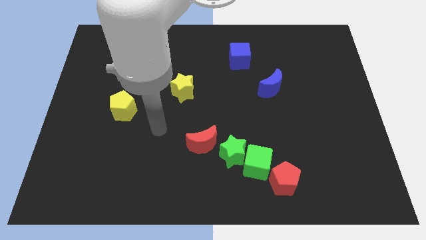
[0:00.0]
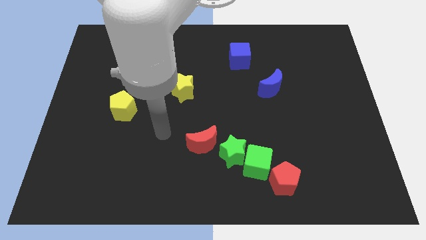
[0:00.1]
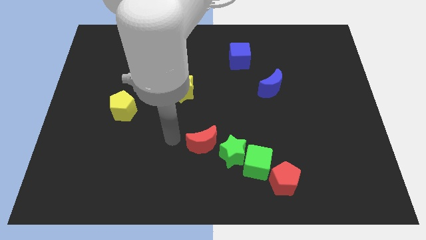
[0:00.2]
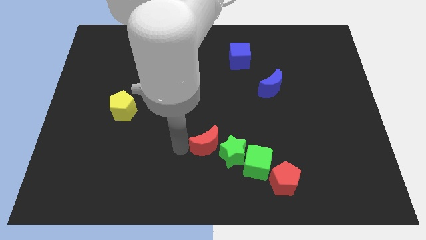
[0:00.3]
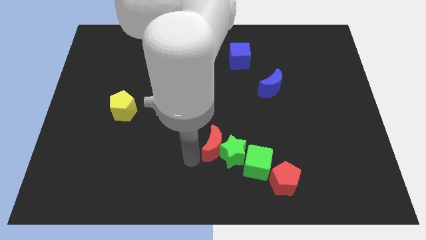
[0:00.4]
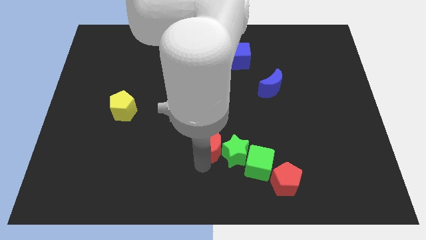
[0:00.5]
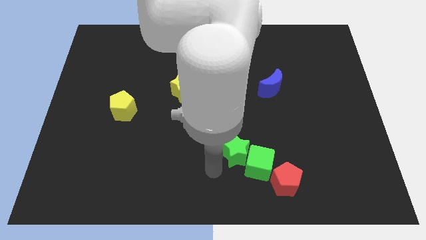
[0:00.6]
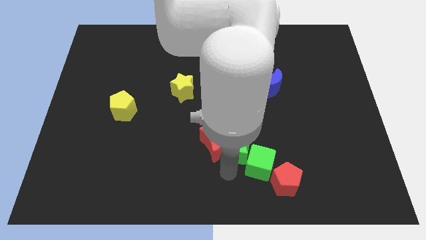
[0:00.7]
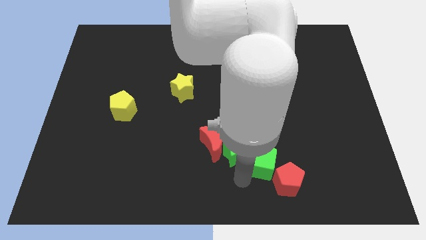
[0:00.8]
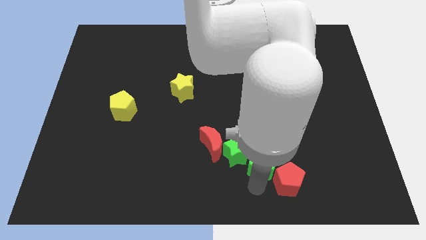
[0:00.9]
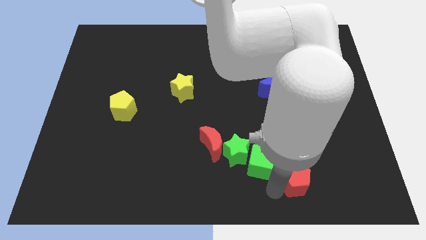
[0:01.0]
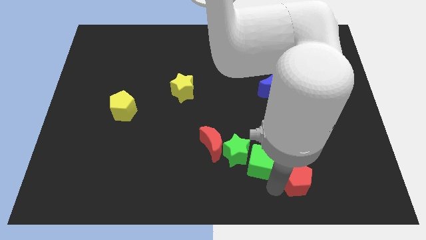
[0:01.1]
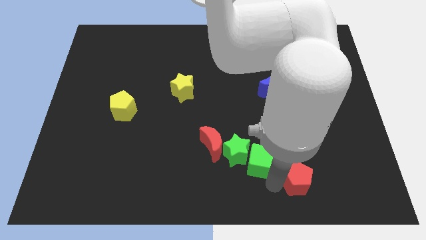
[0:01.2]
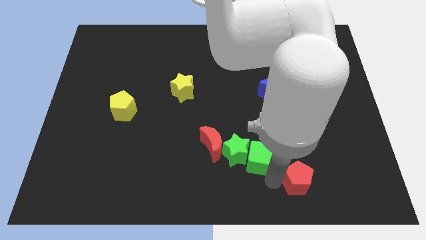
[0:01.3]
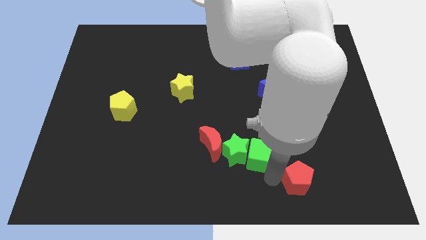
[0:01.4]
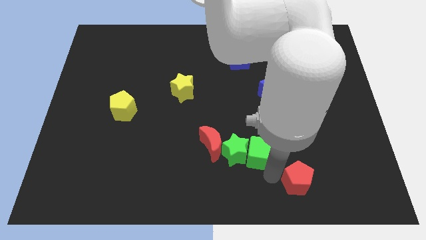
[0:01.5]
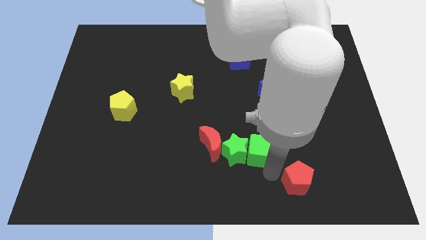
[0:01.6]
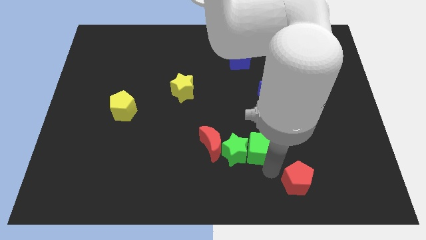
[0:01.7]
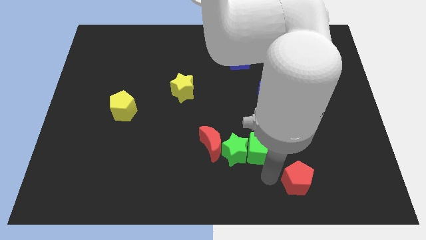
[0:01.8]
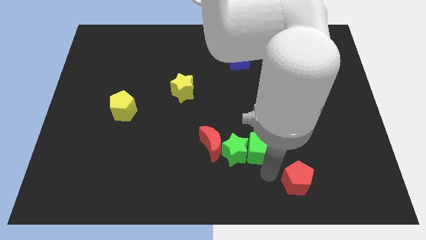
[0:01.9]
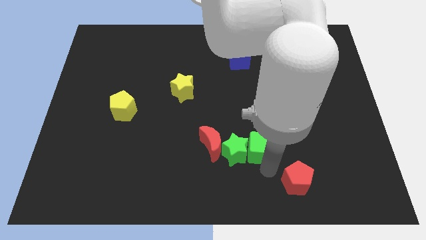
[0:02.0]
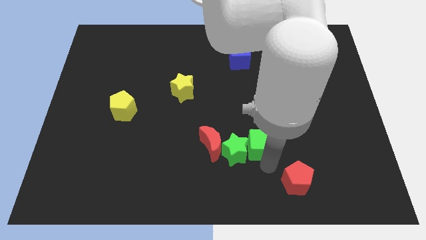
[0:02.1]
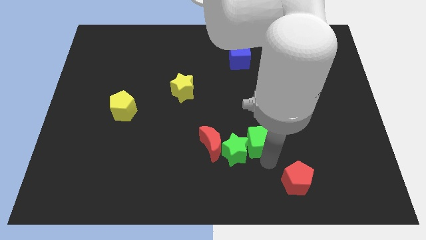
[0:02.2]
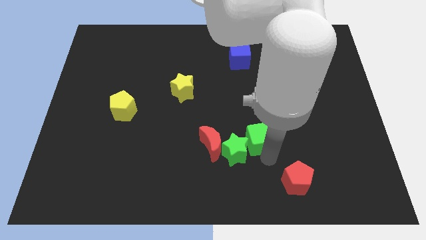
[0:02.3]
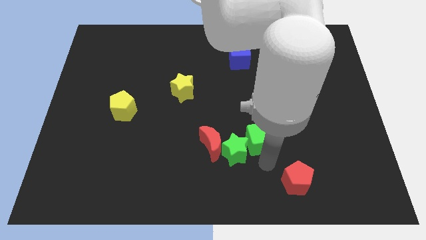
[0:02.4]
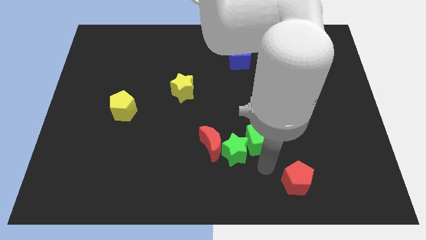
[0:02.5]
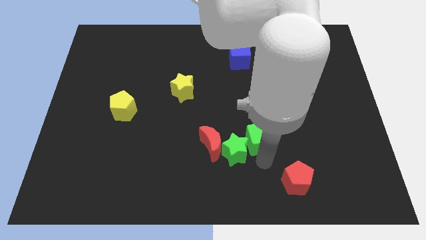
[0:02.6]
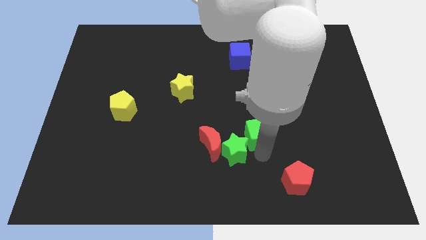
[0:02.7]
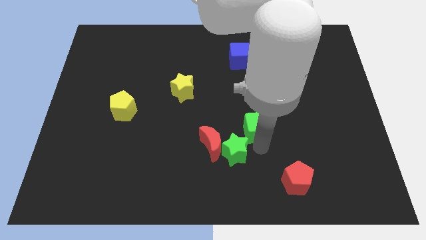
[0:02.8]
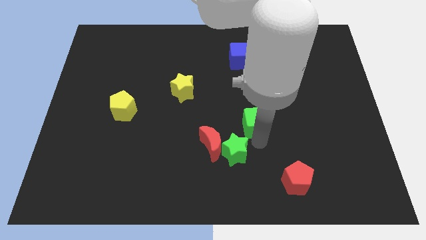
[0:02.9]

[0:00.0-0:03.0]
pull the green cube apart from the green star and red pentagon

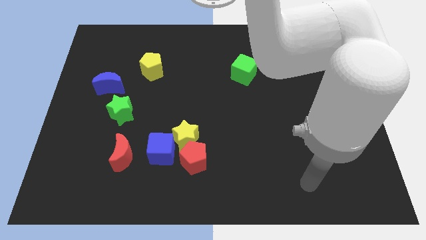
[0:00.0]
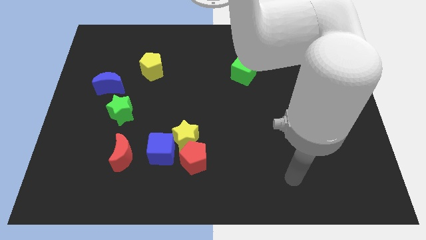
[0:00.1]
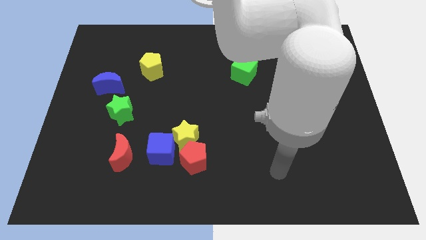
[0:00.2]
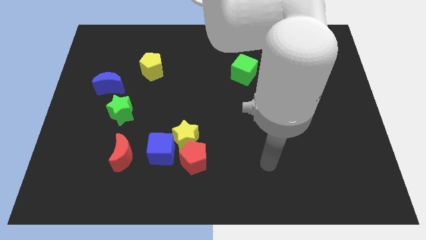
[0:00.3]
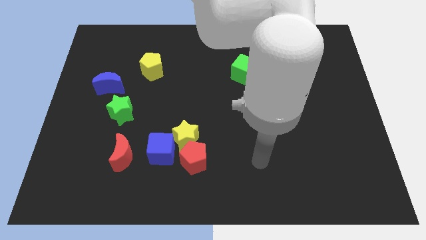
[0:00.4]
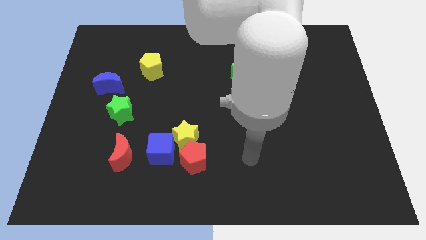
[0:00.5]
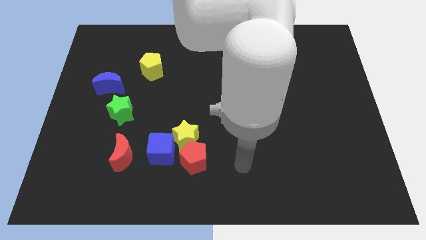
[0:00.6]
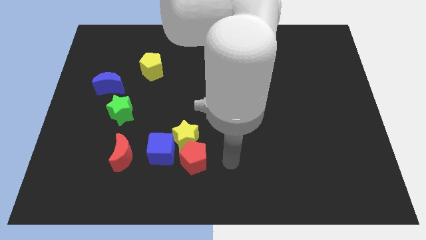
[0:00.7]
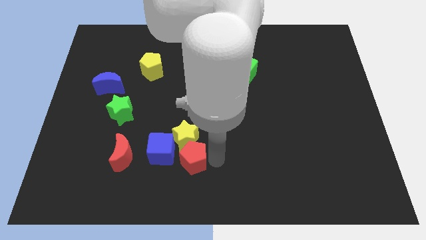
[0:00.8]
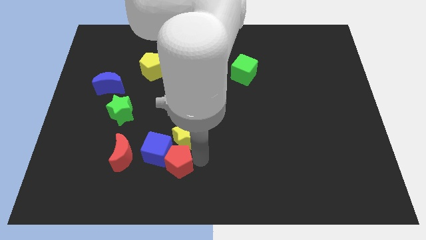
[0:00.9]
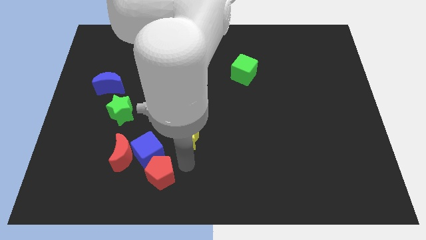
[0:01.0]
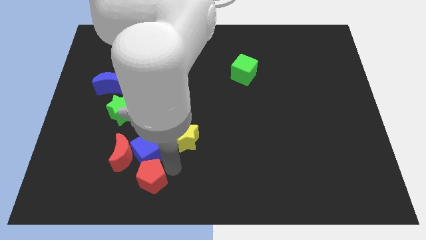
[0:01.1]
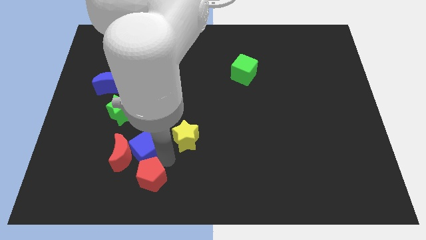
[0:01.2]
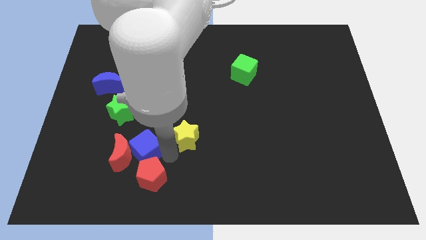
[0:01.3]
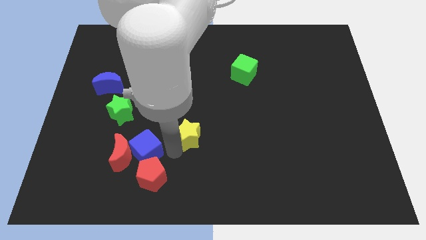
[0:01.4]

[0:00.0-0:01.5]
pull the yellow star apart from the red pentagon and blue cube

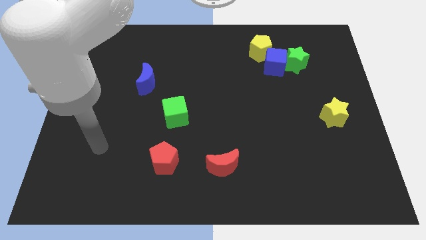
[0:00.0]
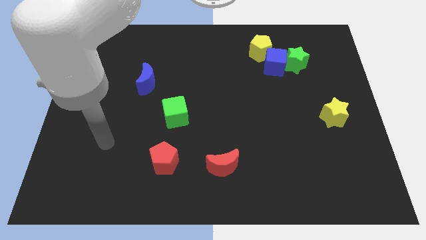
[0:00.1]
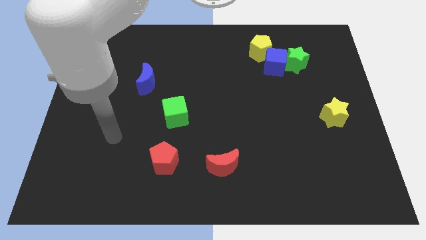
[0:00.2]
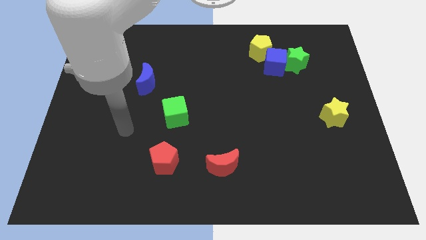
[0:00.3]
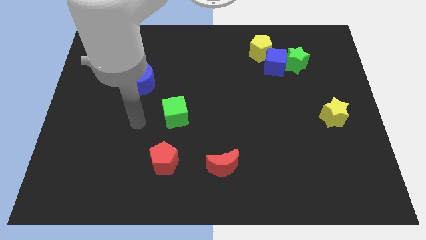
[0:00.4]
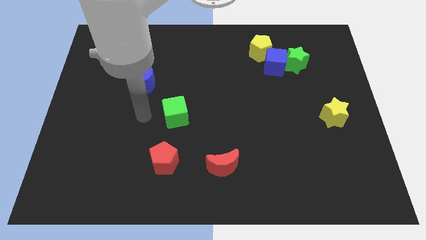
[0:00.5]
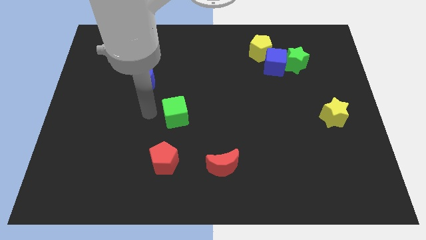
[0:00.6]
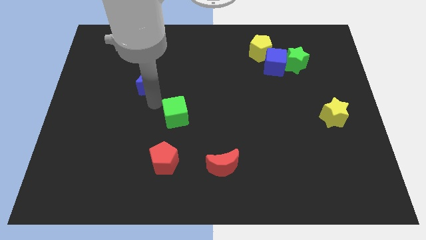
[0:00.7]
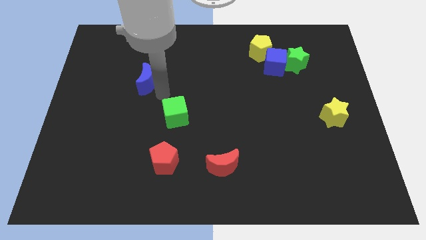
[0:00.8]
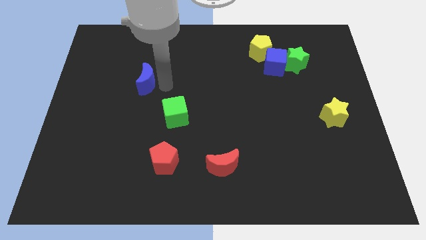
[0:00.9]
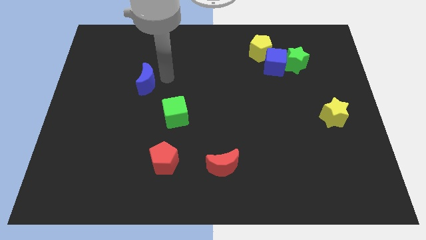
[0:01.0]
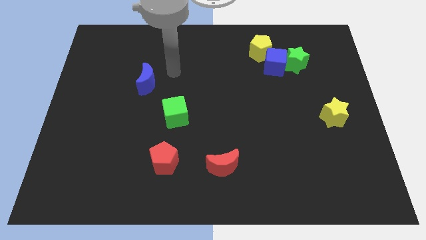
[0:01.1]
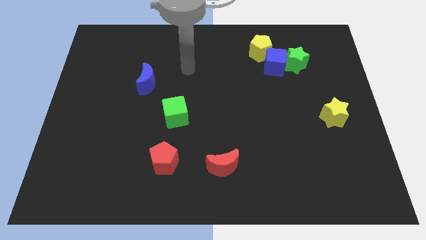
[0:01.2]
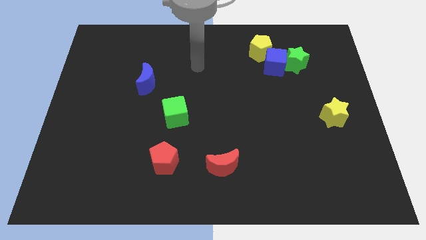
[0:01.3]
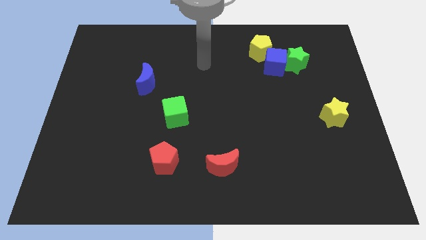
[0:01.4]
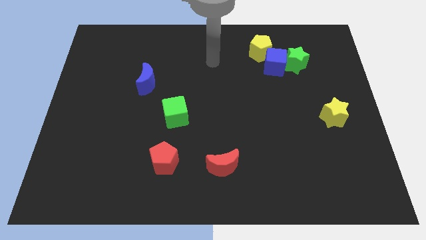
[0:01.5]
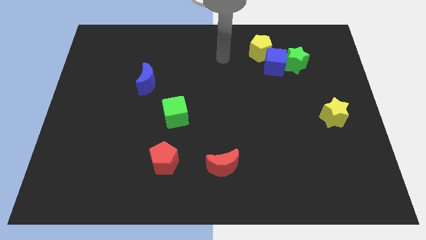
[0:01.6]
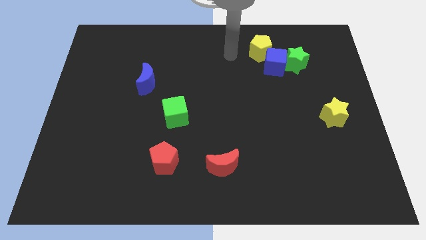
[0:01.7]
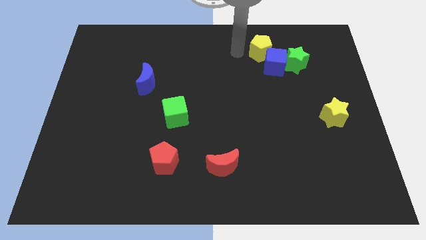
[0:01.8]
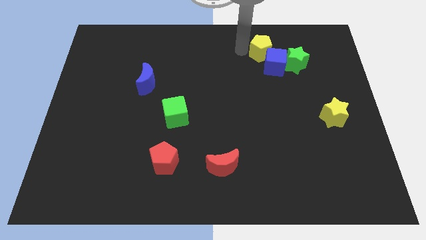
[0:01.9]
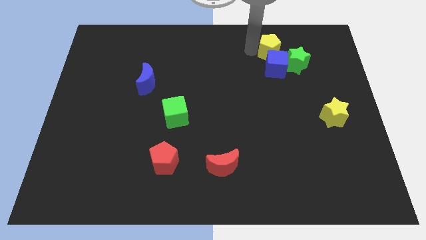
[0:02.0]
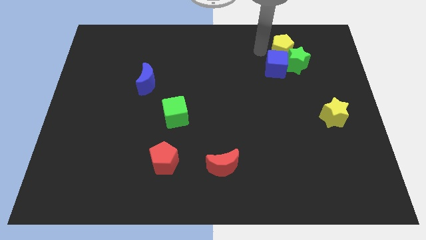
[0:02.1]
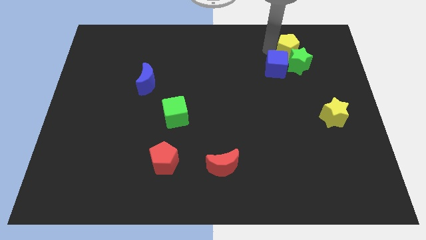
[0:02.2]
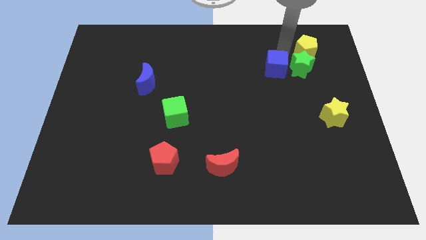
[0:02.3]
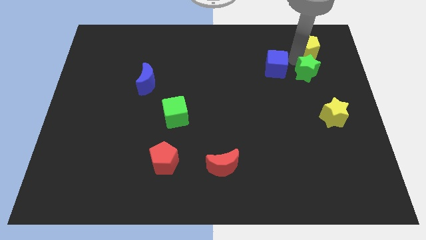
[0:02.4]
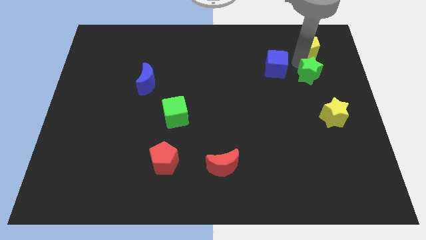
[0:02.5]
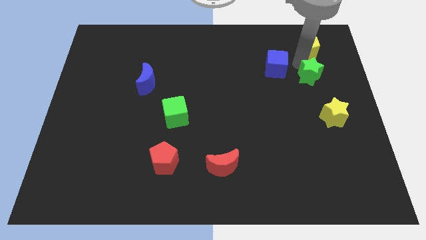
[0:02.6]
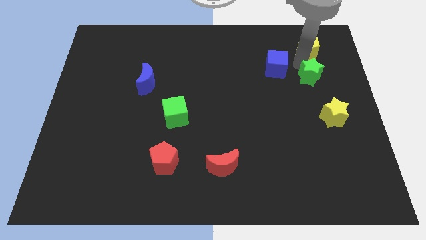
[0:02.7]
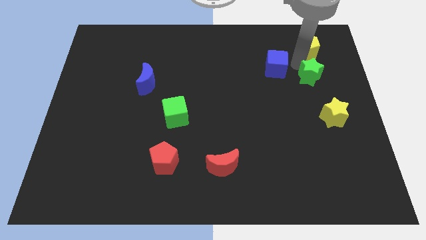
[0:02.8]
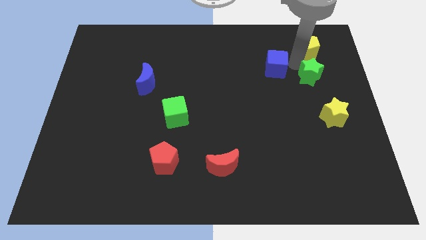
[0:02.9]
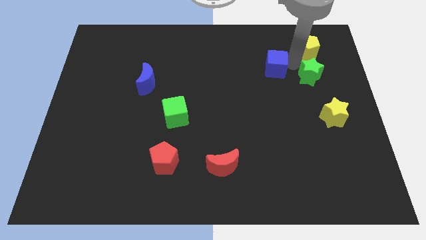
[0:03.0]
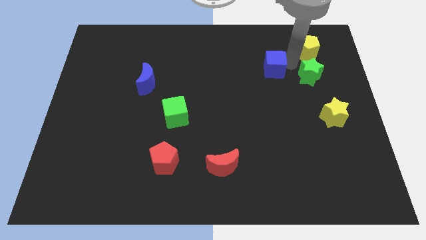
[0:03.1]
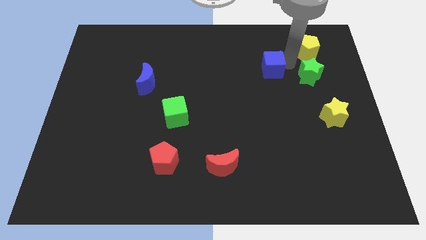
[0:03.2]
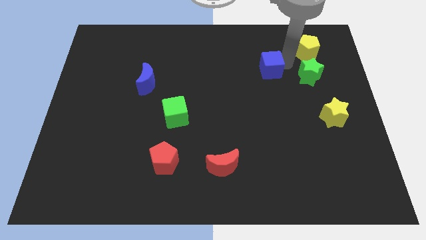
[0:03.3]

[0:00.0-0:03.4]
move the blue cube away from the green star and yellow pentagon

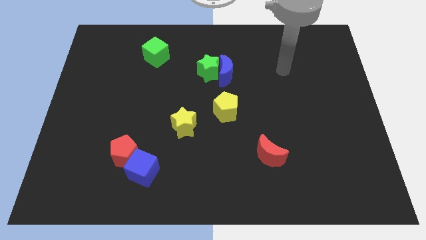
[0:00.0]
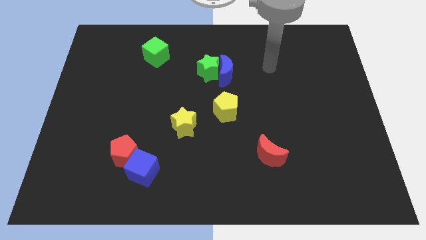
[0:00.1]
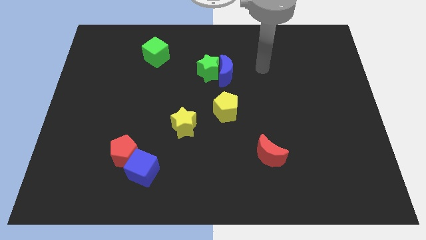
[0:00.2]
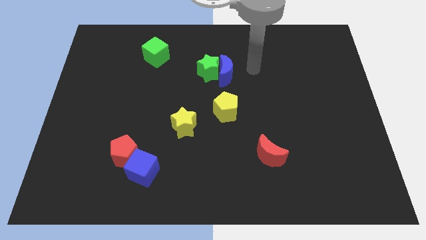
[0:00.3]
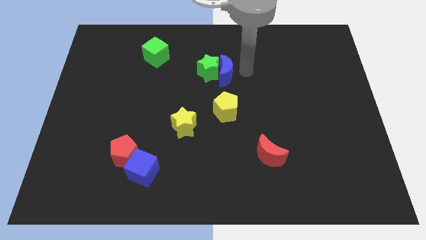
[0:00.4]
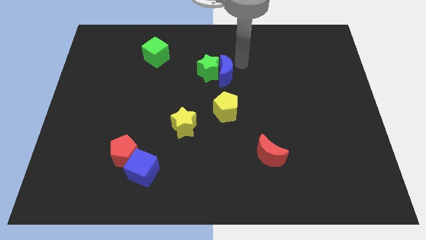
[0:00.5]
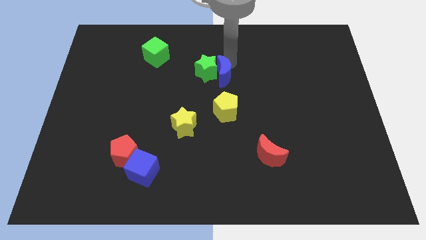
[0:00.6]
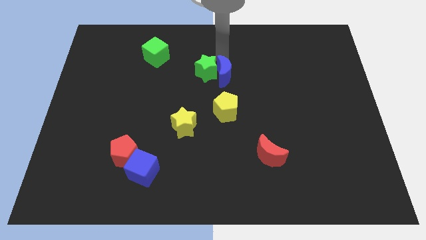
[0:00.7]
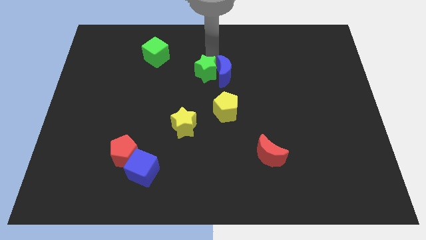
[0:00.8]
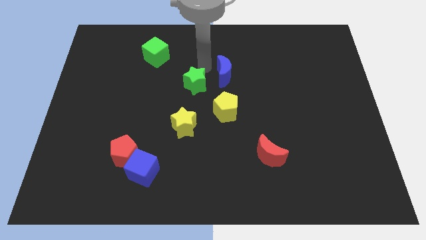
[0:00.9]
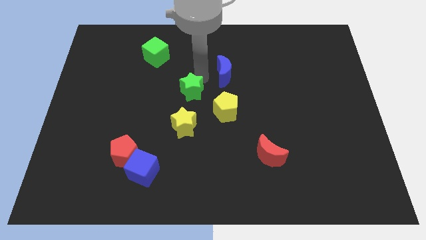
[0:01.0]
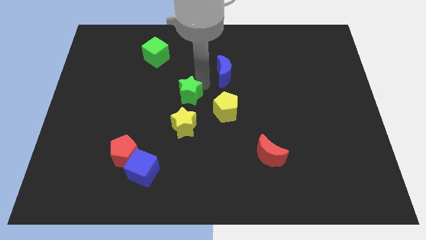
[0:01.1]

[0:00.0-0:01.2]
pull the blue moon apart from the green star

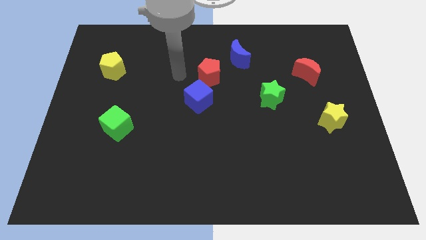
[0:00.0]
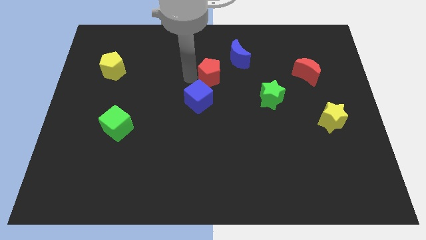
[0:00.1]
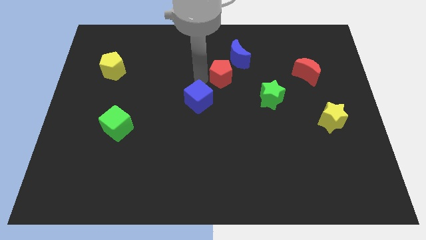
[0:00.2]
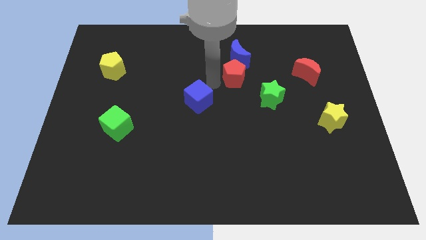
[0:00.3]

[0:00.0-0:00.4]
pull the blue cube apart from the red pentagon
